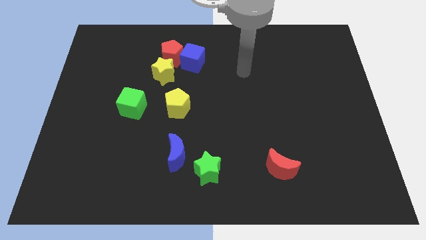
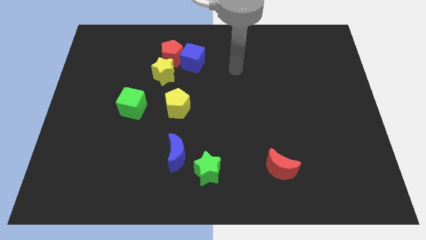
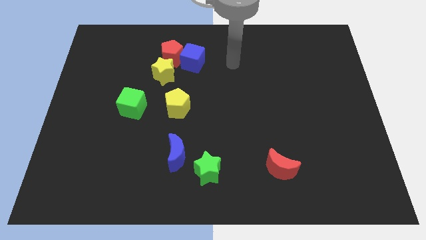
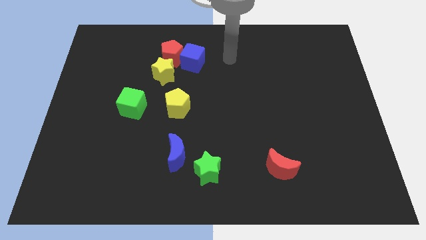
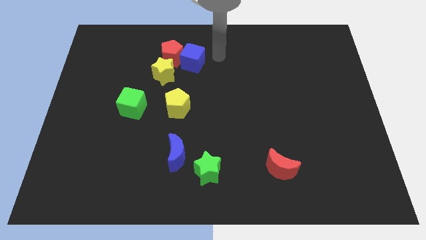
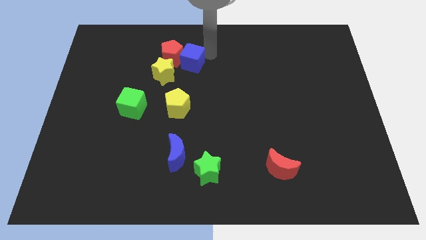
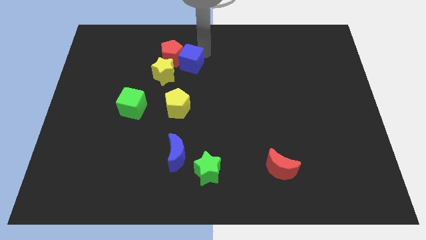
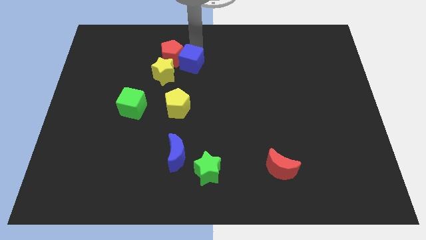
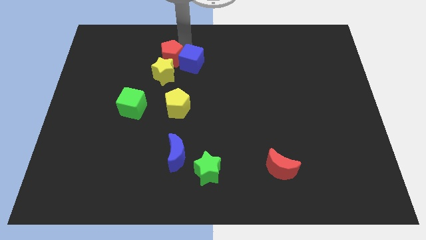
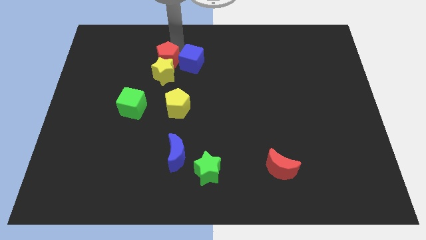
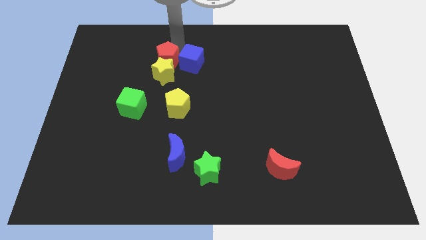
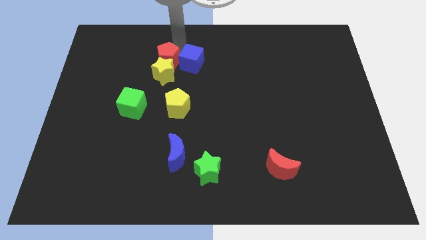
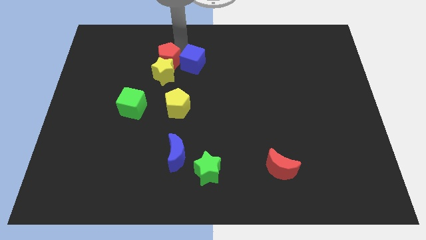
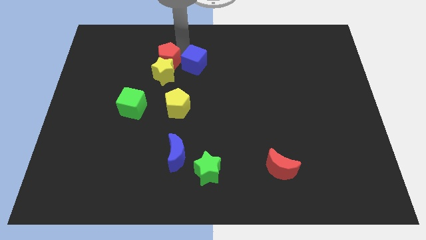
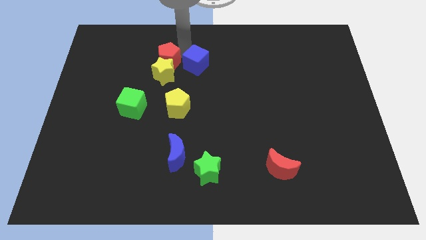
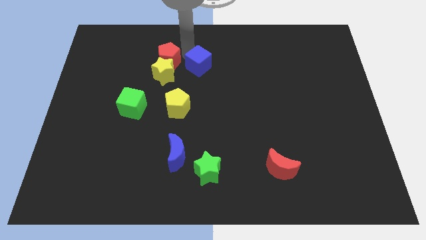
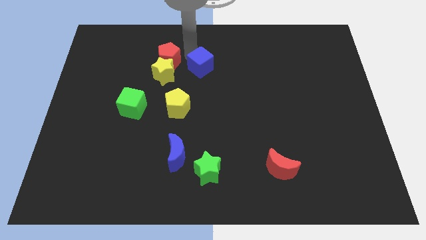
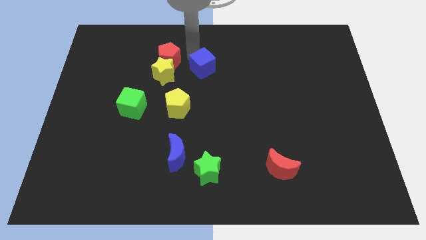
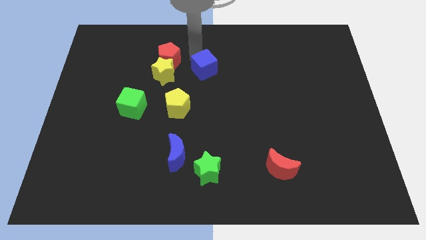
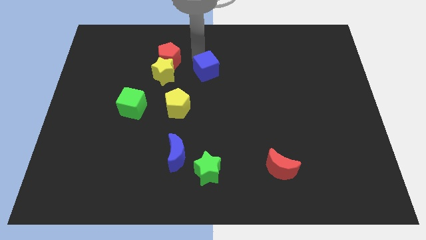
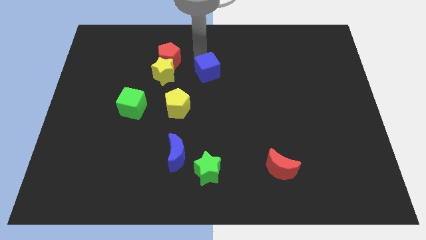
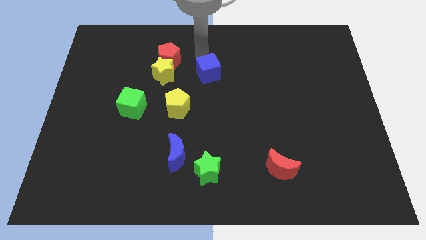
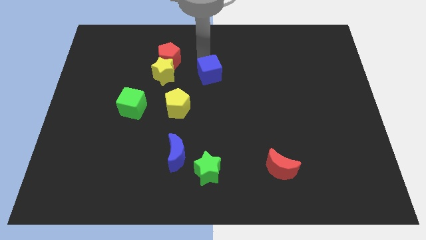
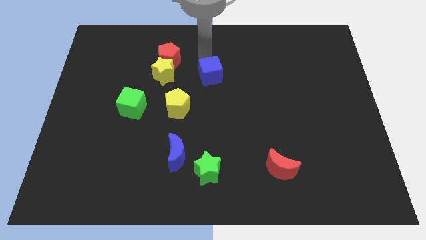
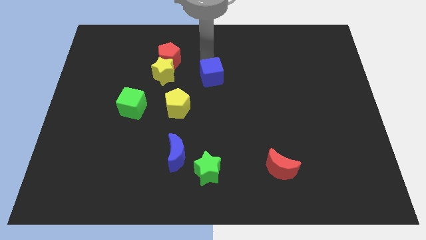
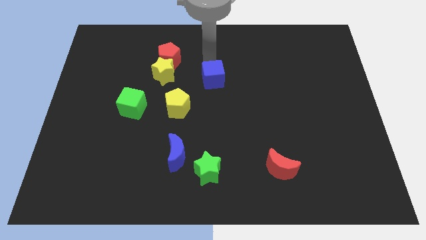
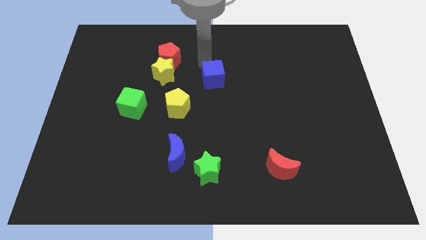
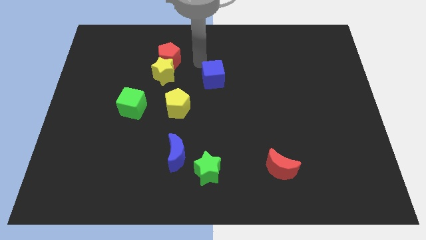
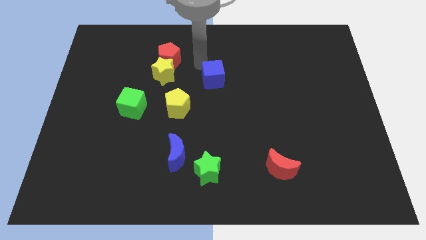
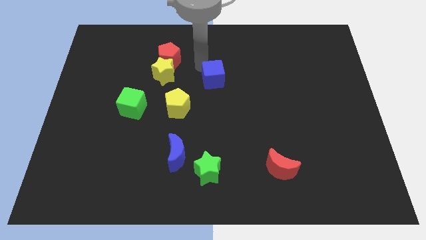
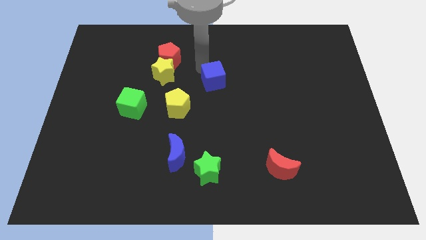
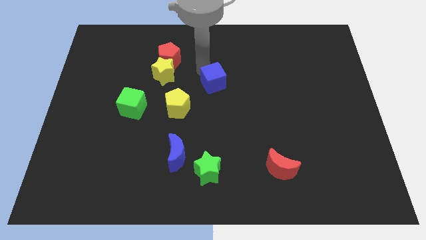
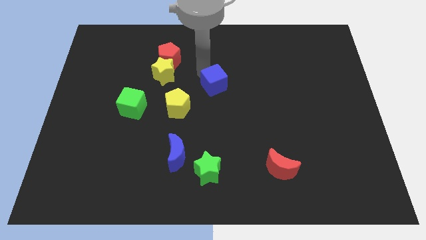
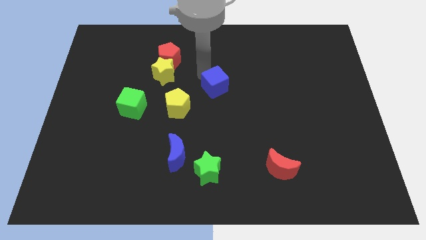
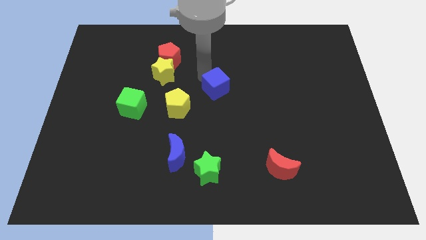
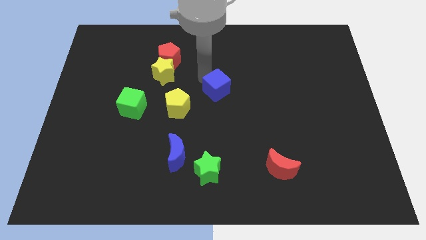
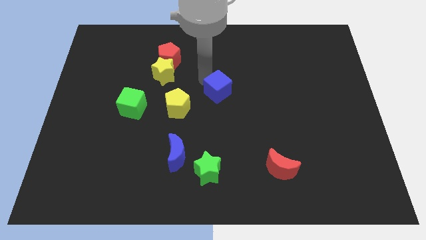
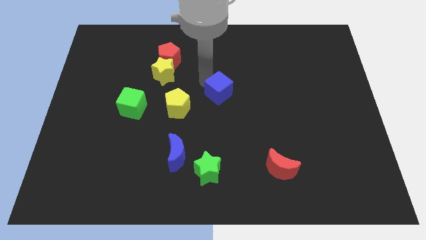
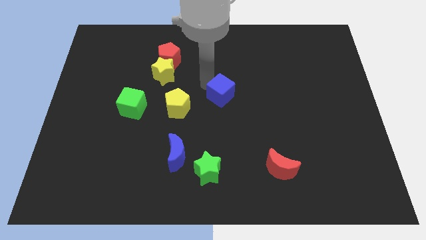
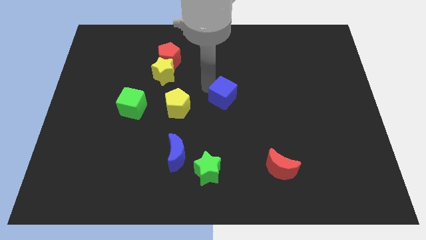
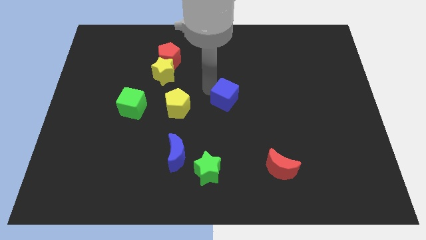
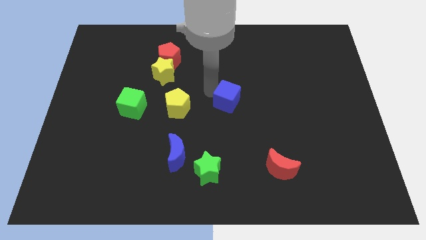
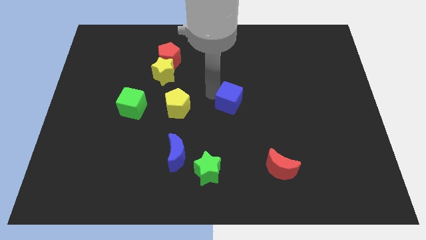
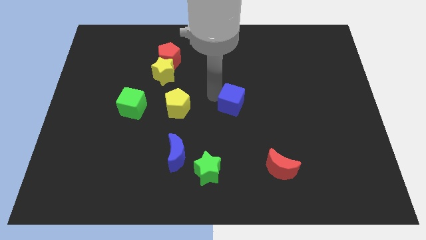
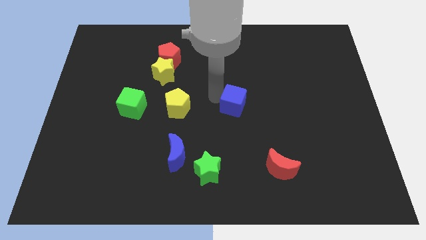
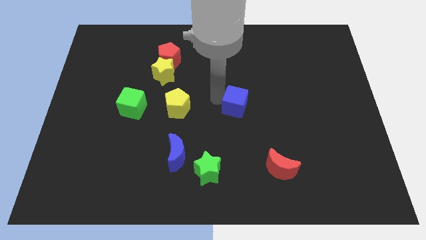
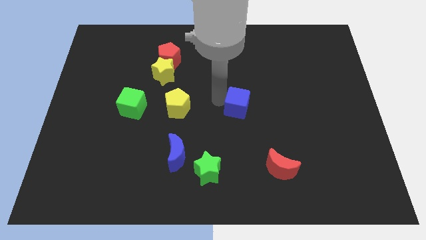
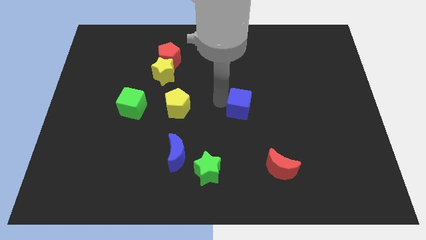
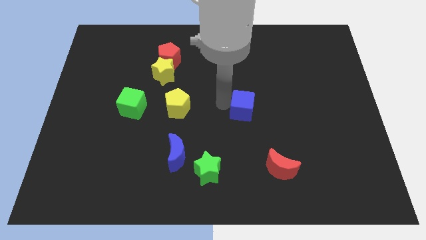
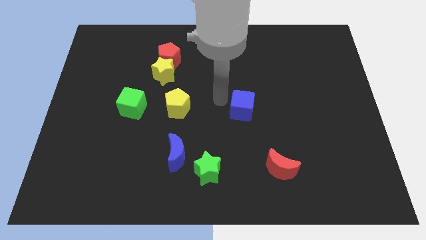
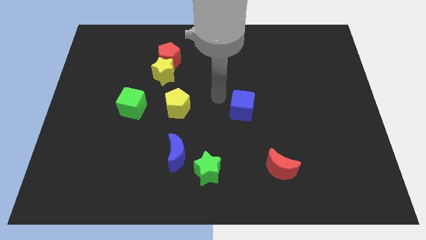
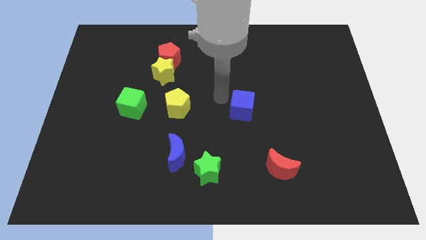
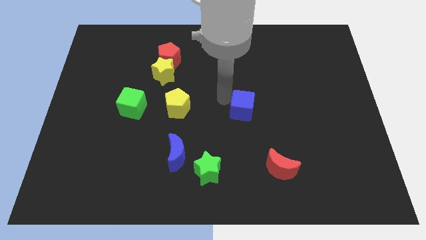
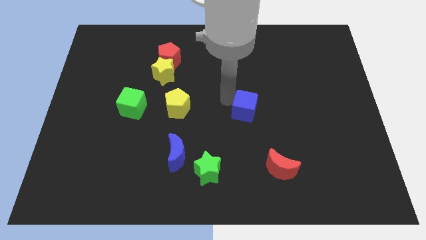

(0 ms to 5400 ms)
slide the blue cube diagonally down and to the right

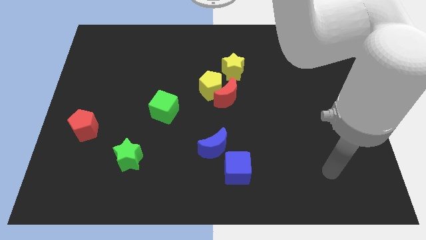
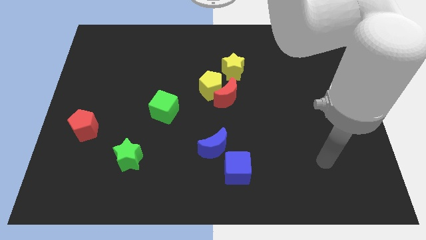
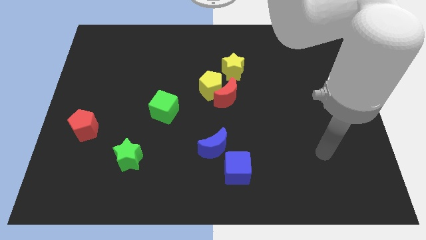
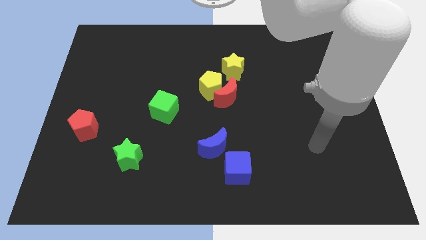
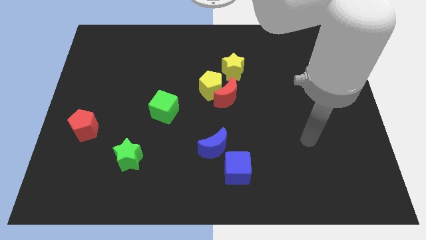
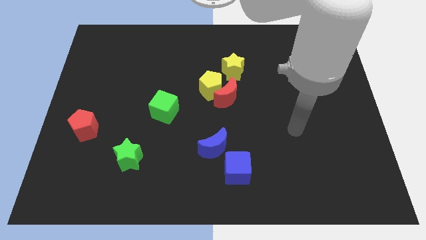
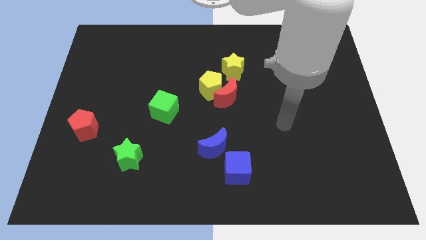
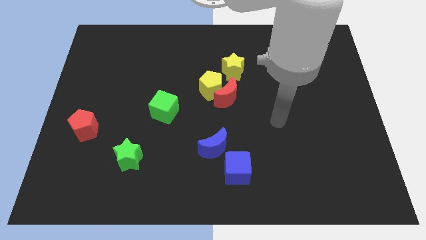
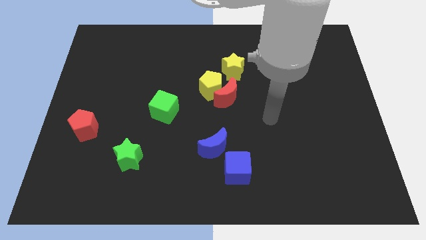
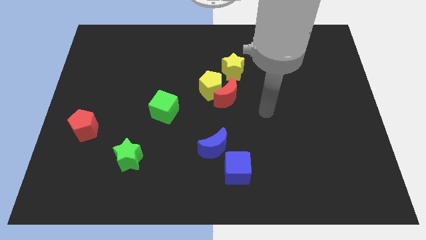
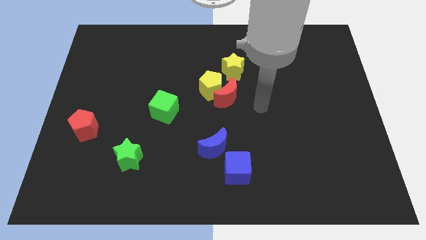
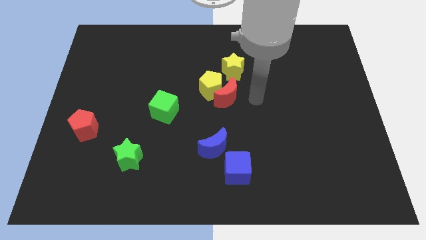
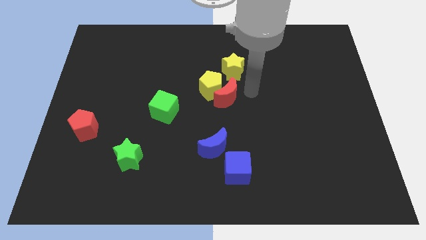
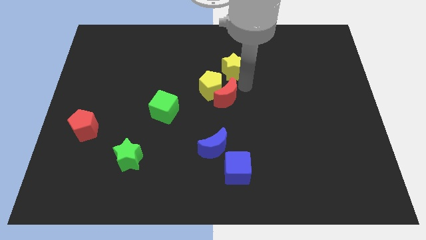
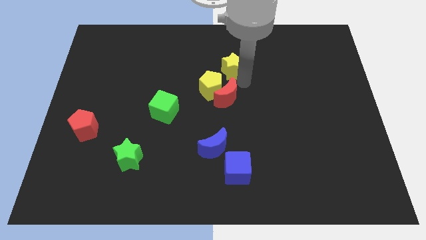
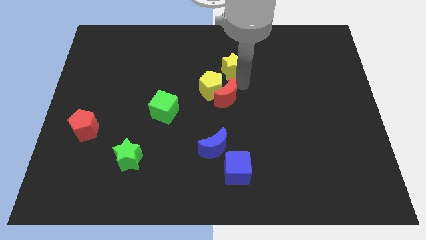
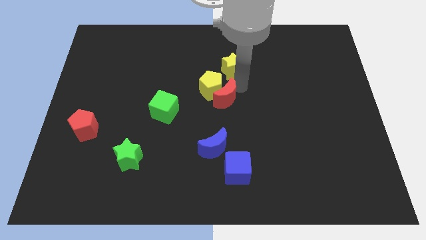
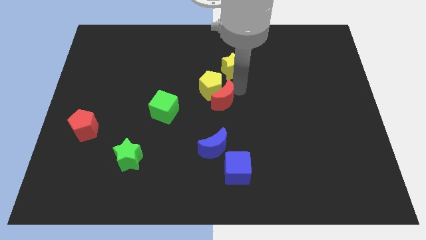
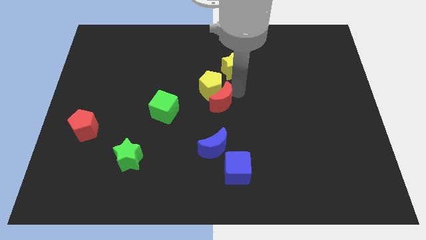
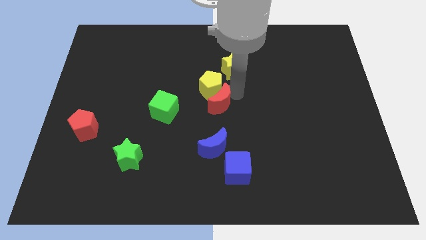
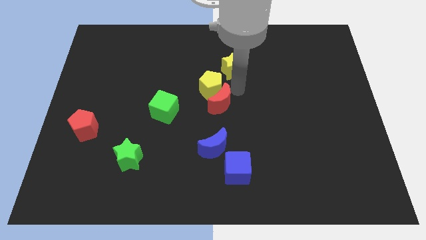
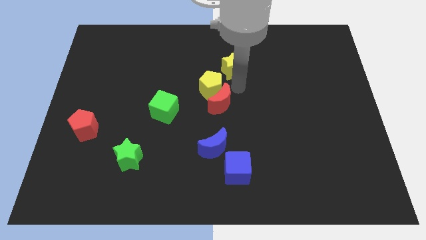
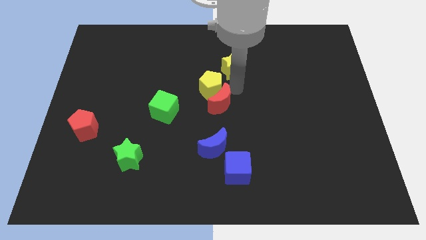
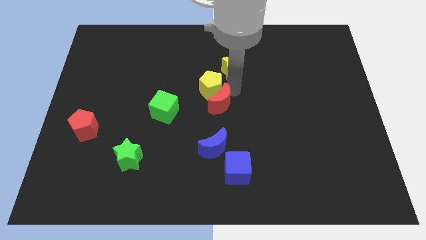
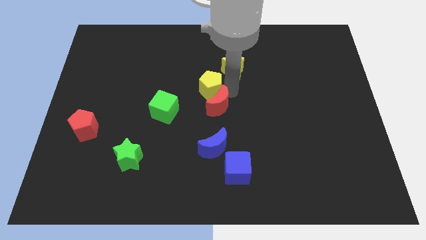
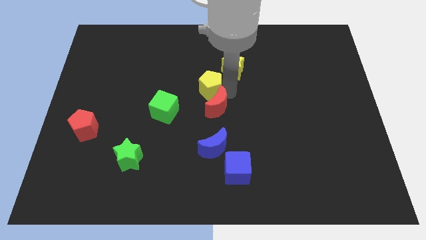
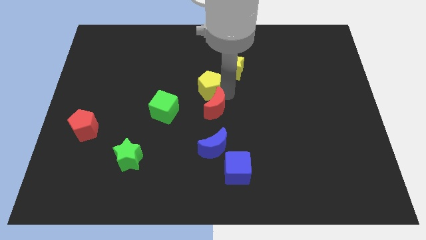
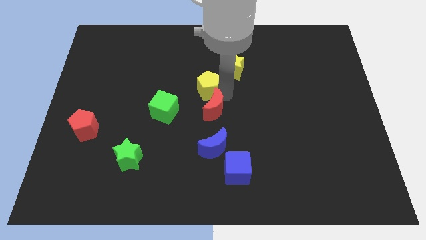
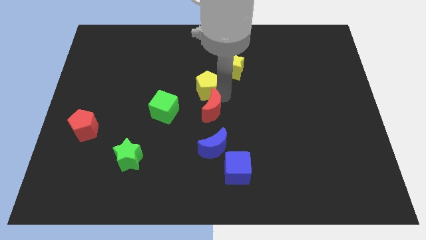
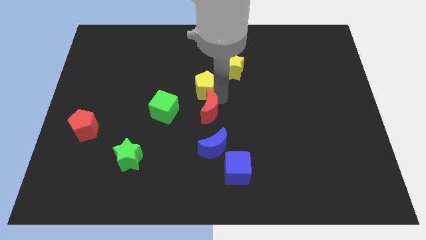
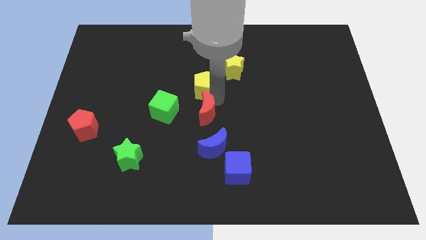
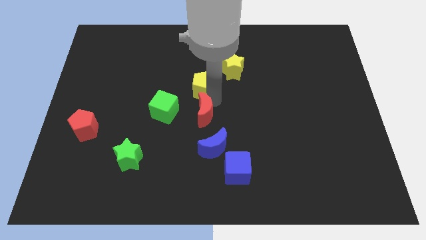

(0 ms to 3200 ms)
slightly move the red moon diagonally down and to the left
